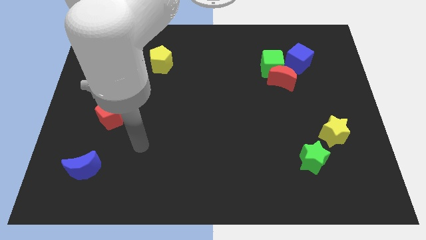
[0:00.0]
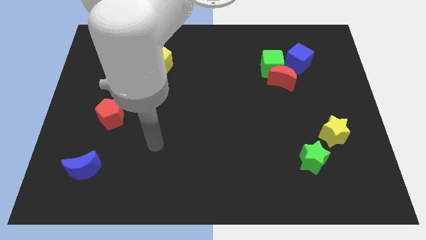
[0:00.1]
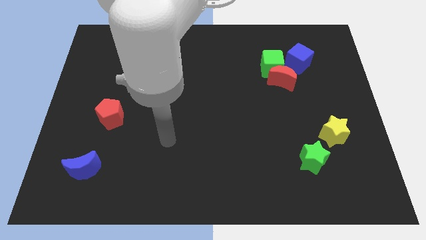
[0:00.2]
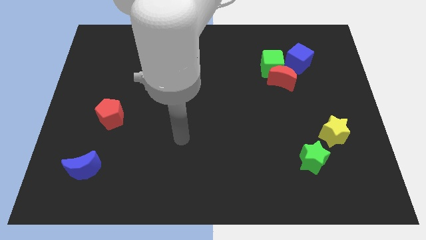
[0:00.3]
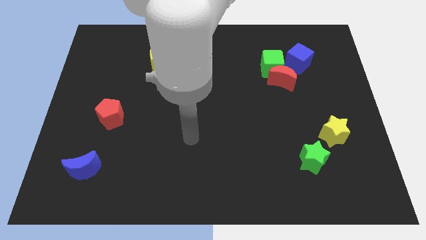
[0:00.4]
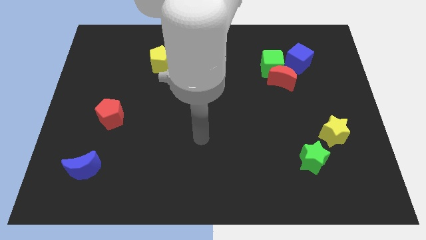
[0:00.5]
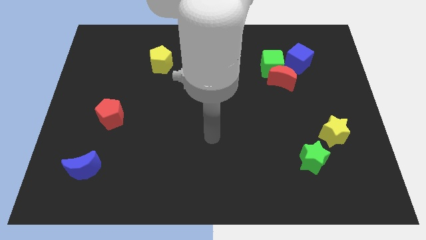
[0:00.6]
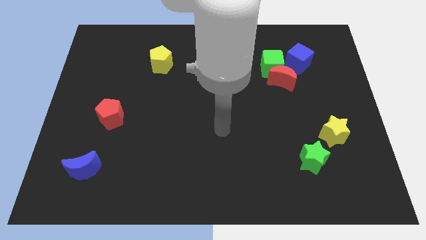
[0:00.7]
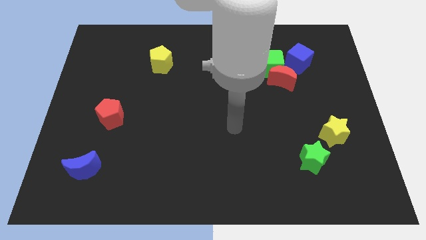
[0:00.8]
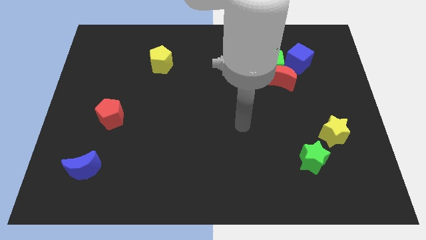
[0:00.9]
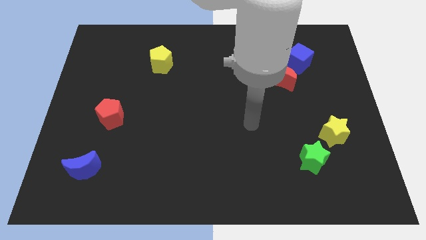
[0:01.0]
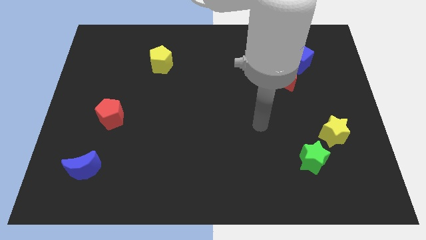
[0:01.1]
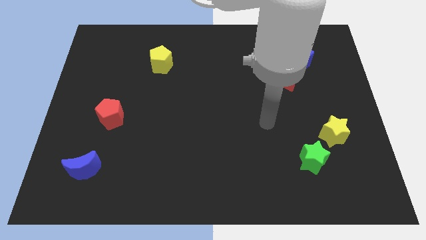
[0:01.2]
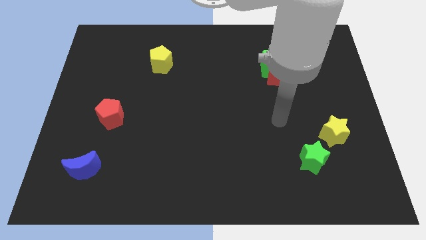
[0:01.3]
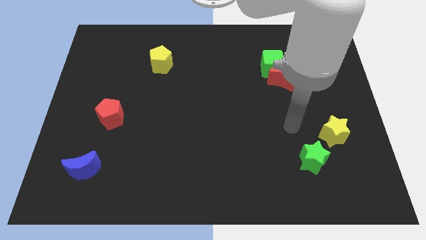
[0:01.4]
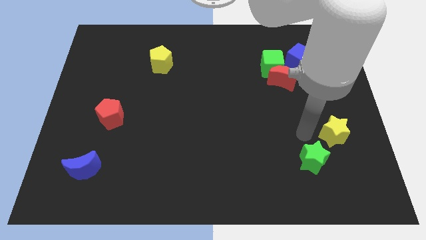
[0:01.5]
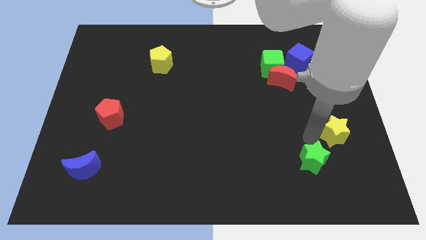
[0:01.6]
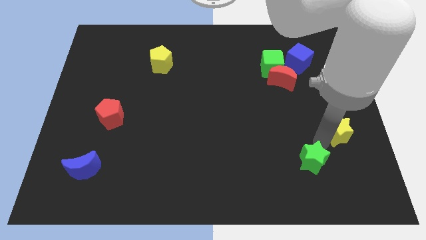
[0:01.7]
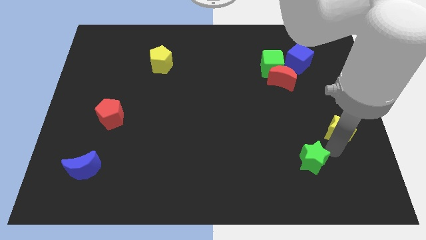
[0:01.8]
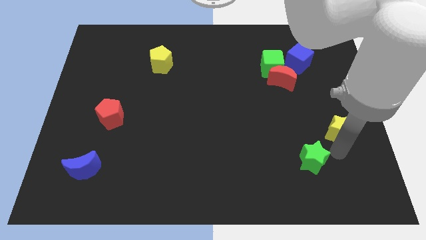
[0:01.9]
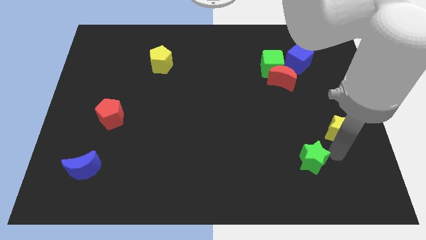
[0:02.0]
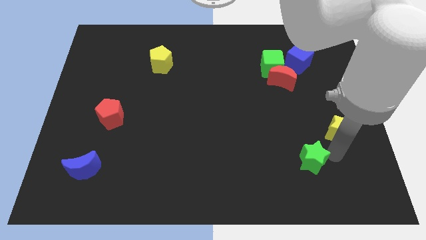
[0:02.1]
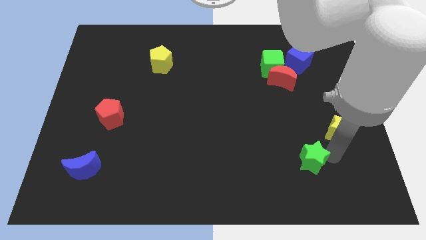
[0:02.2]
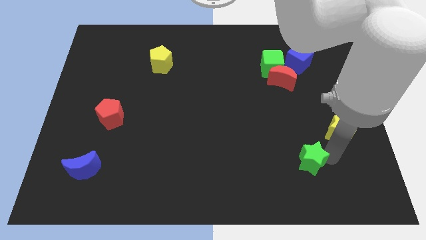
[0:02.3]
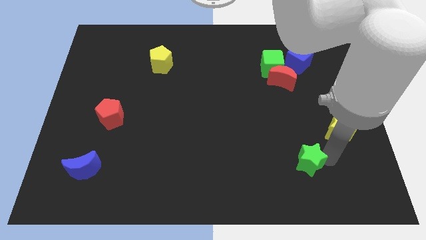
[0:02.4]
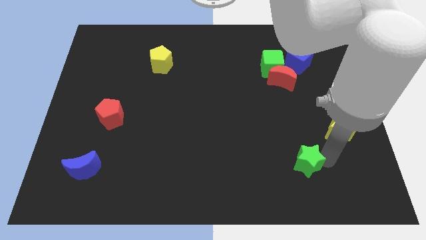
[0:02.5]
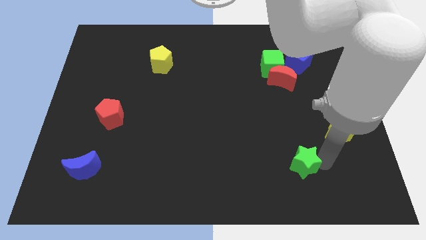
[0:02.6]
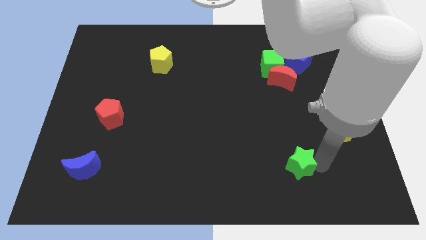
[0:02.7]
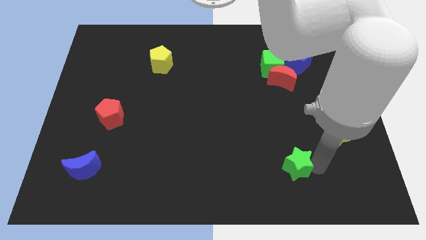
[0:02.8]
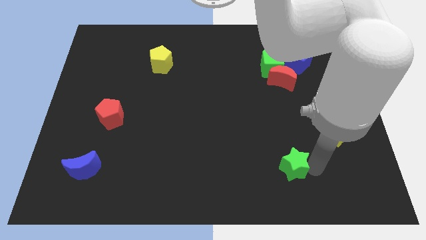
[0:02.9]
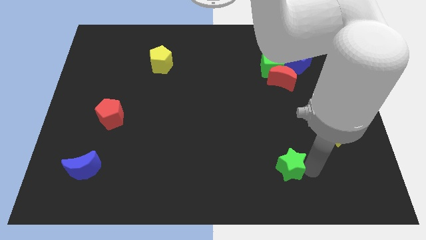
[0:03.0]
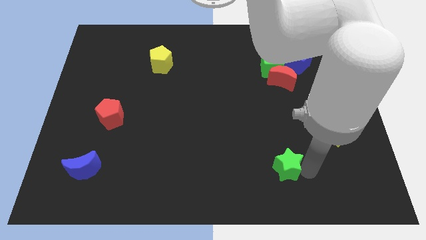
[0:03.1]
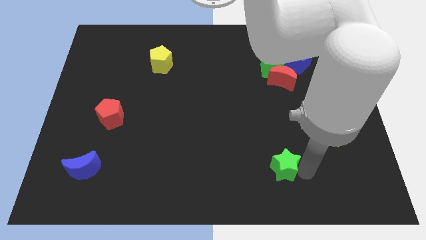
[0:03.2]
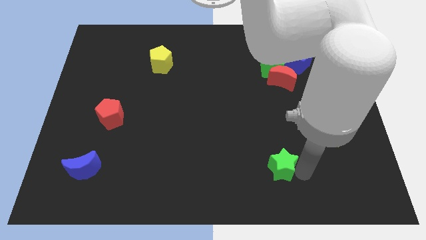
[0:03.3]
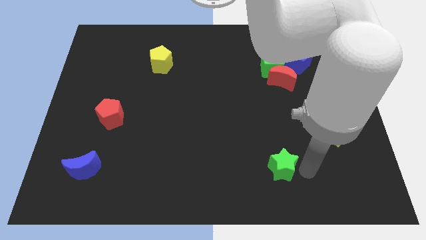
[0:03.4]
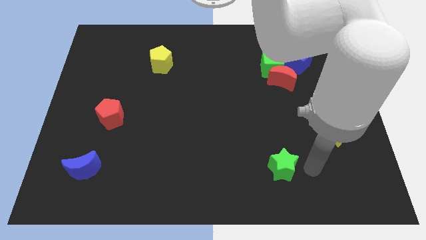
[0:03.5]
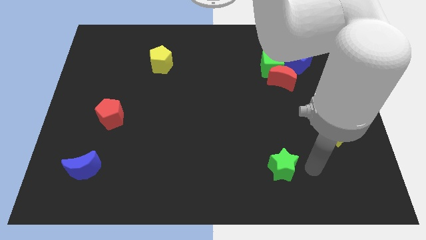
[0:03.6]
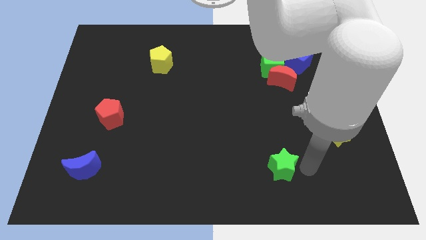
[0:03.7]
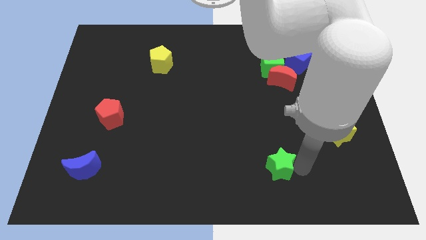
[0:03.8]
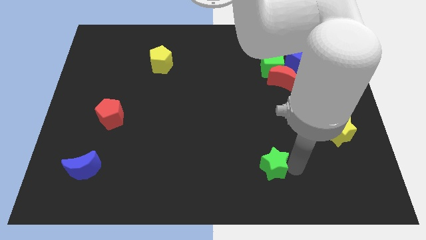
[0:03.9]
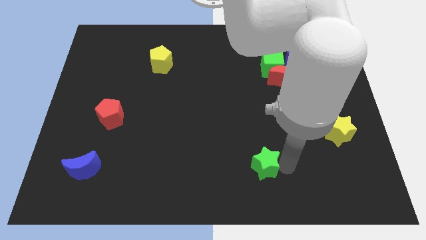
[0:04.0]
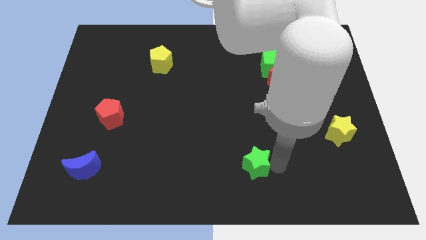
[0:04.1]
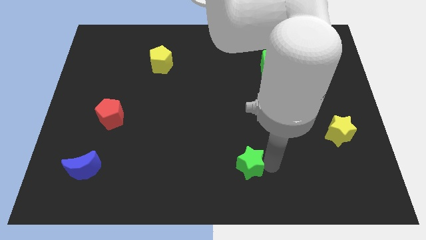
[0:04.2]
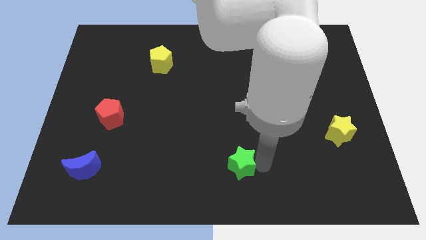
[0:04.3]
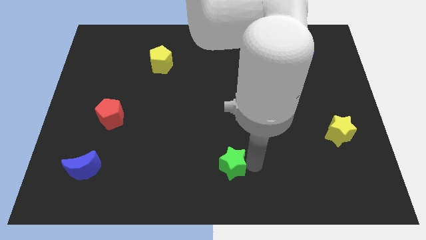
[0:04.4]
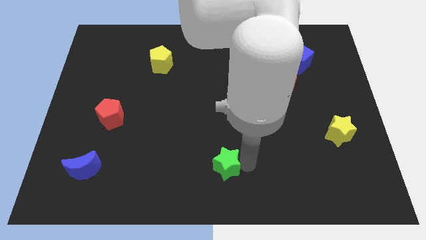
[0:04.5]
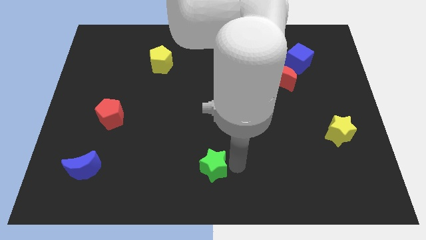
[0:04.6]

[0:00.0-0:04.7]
slide the green star left

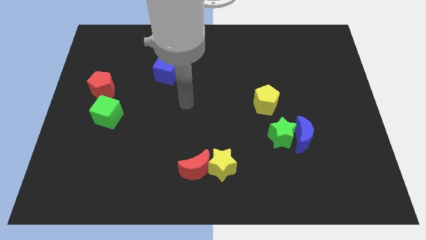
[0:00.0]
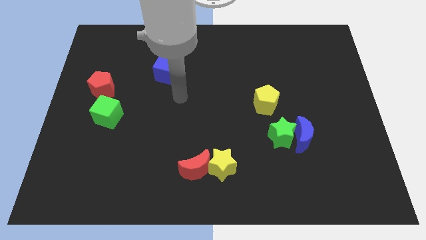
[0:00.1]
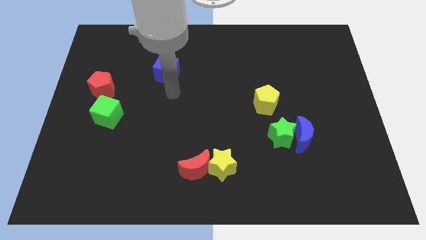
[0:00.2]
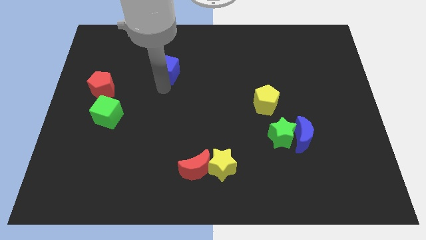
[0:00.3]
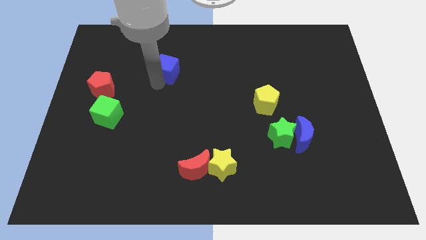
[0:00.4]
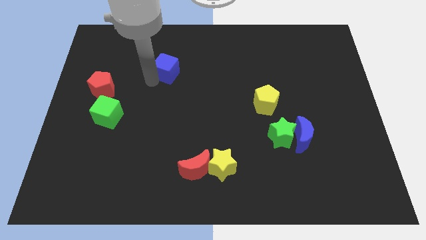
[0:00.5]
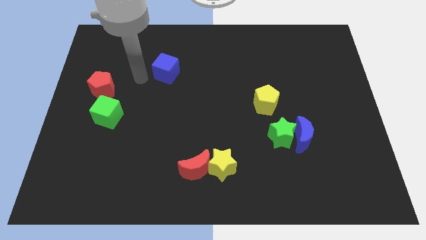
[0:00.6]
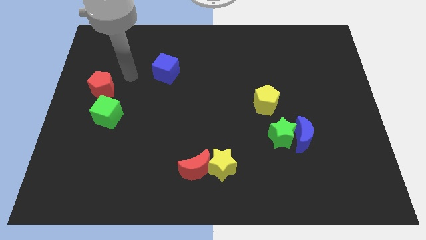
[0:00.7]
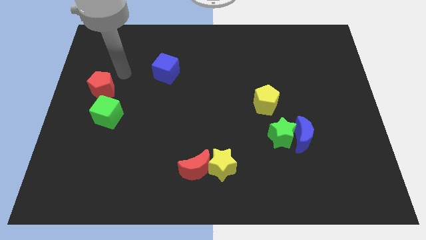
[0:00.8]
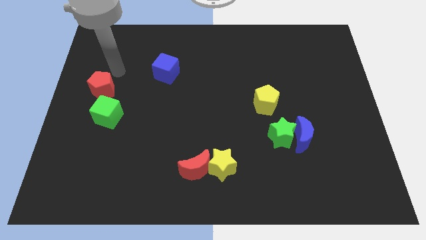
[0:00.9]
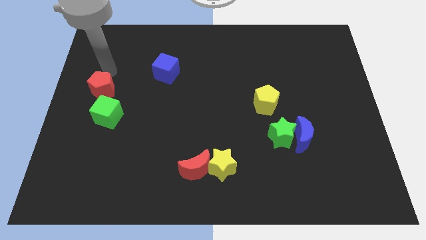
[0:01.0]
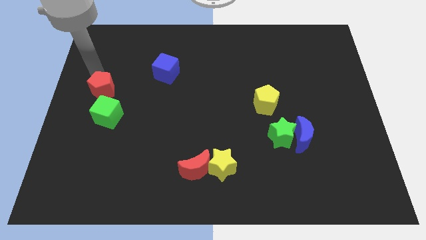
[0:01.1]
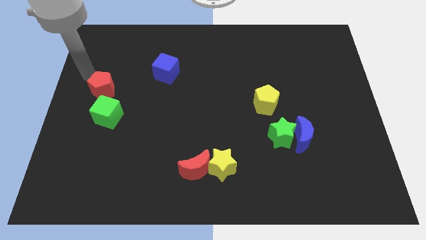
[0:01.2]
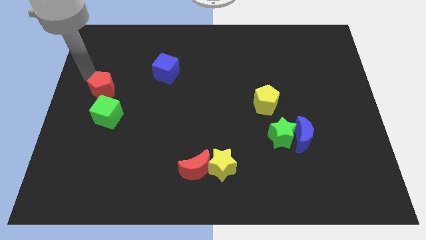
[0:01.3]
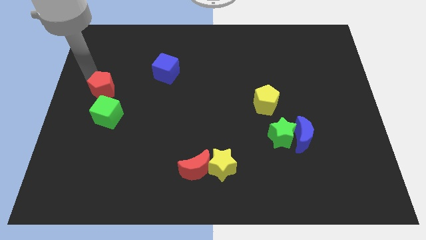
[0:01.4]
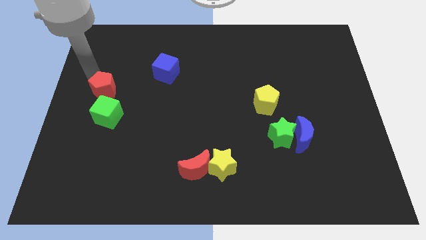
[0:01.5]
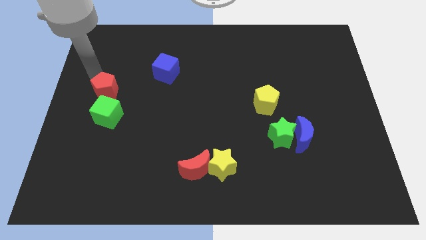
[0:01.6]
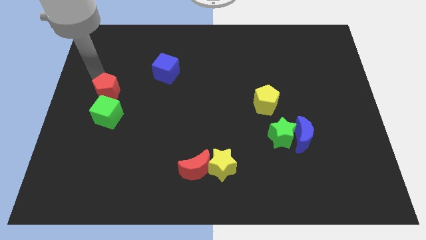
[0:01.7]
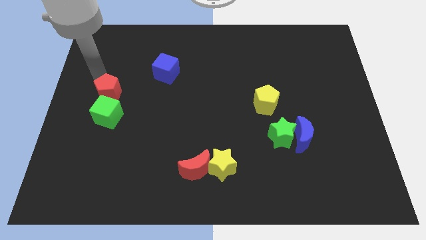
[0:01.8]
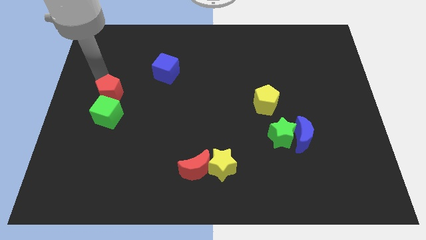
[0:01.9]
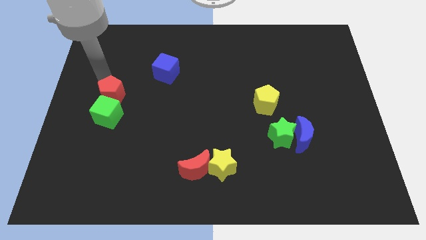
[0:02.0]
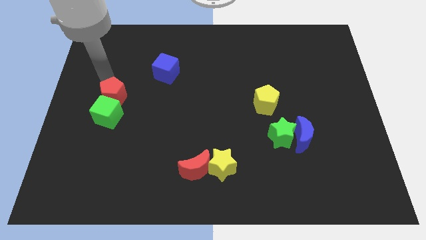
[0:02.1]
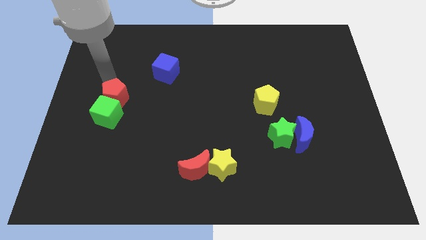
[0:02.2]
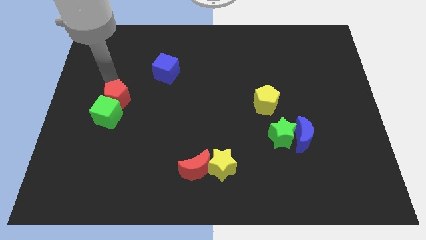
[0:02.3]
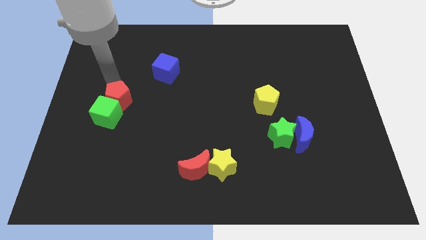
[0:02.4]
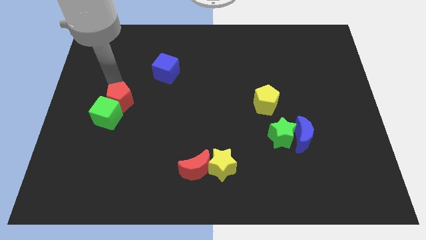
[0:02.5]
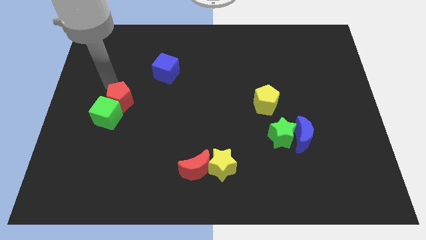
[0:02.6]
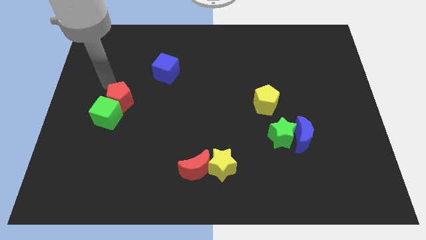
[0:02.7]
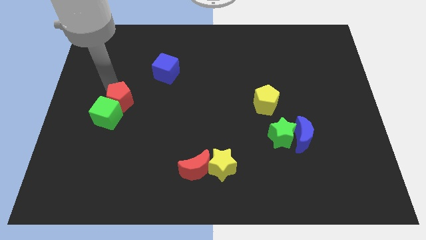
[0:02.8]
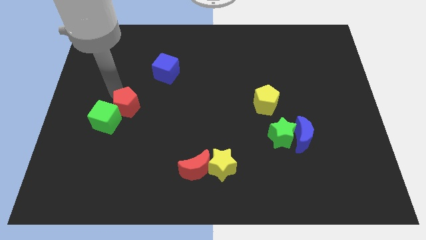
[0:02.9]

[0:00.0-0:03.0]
push the red pentagon a little bit downwards and then to the right

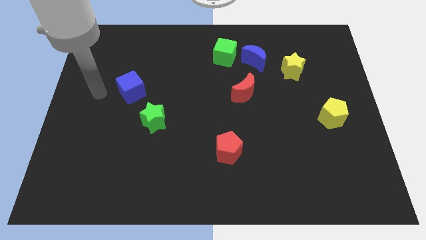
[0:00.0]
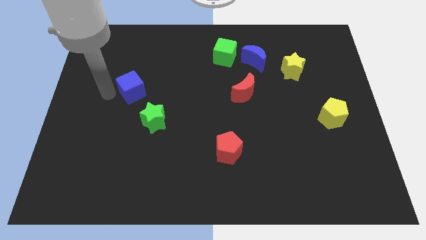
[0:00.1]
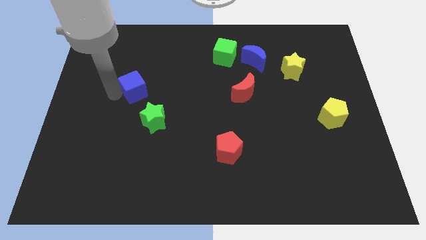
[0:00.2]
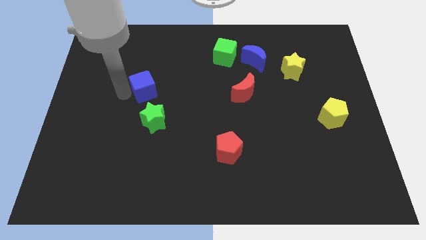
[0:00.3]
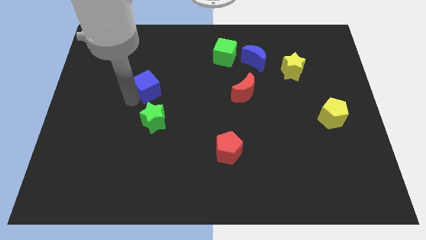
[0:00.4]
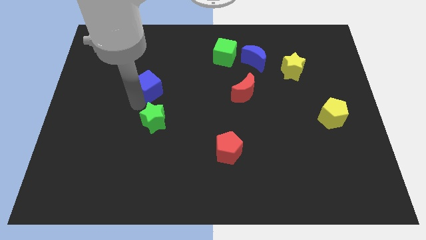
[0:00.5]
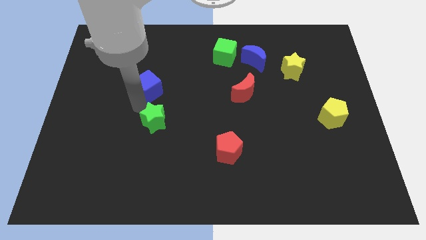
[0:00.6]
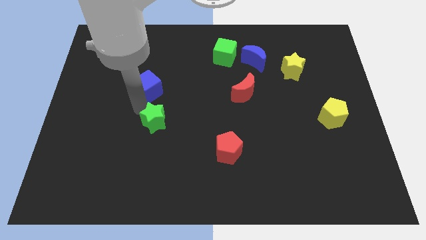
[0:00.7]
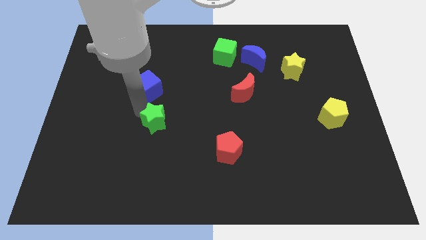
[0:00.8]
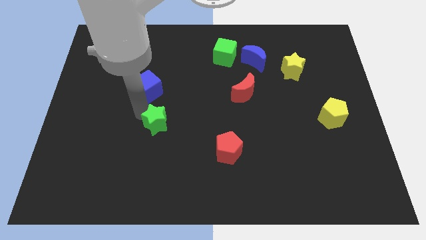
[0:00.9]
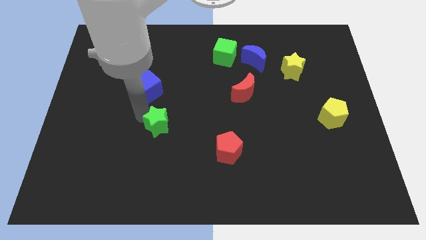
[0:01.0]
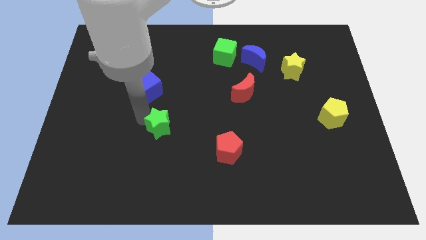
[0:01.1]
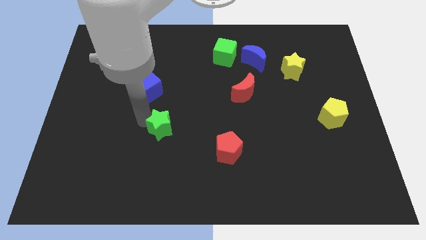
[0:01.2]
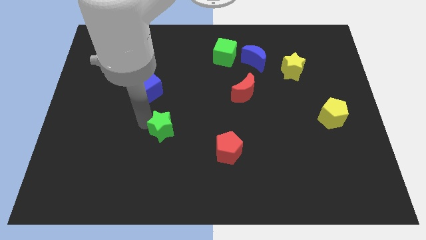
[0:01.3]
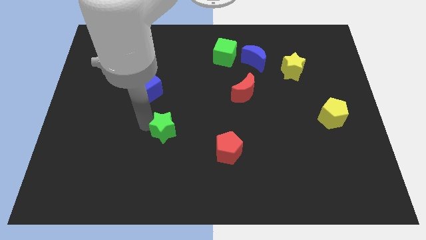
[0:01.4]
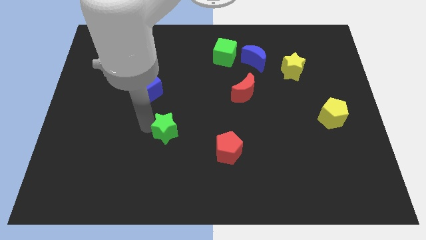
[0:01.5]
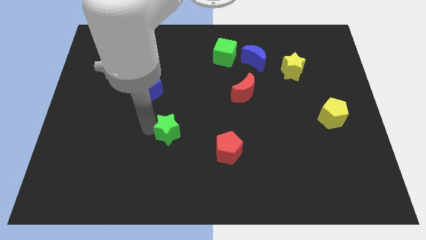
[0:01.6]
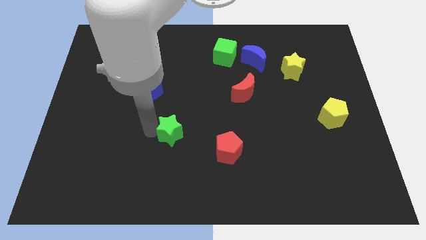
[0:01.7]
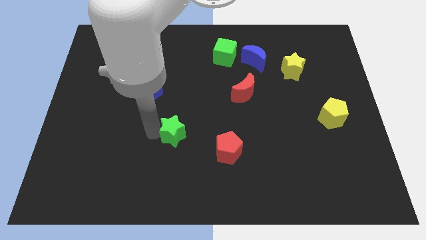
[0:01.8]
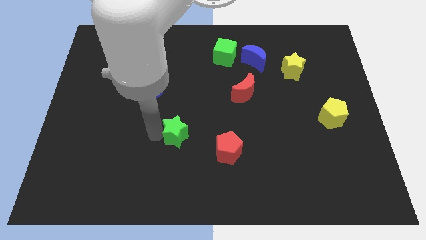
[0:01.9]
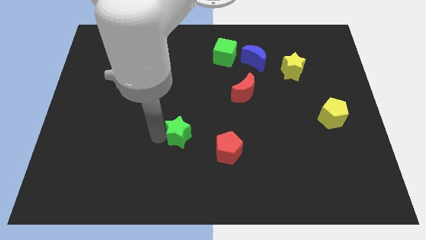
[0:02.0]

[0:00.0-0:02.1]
push the green star a little bit down and to the right
